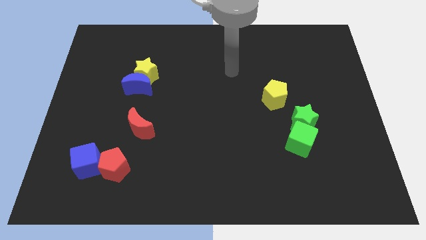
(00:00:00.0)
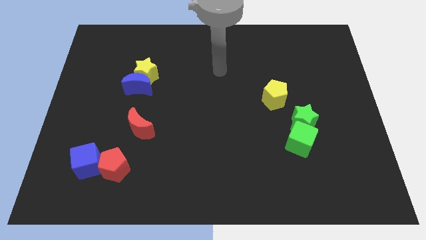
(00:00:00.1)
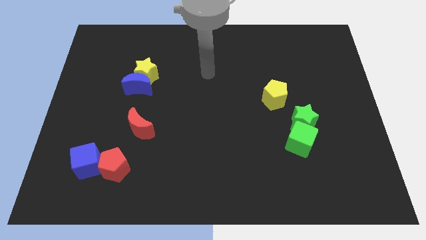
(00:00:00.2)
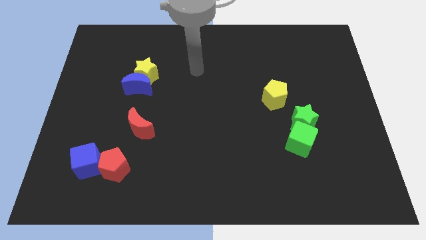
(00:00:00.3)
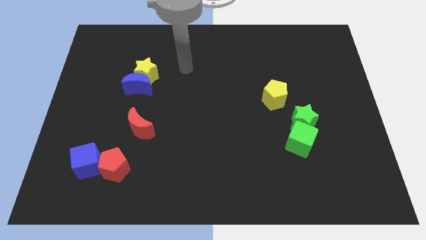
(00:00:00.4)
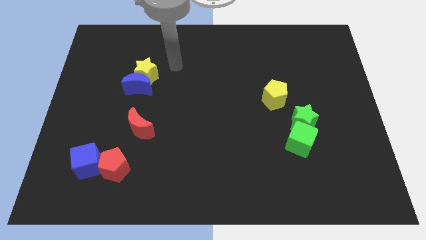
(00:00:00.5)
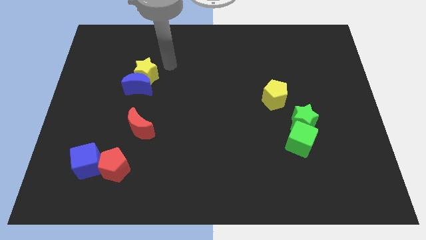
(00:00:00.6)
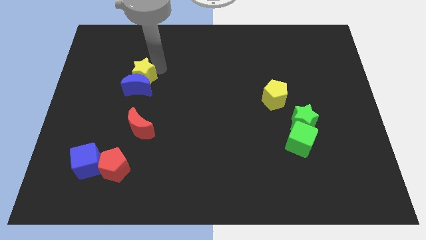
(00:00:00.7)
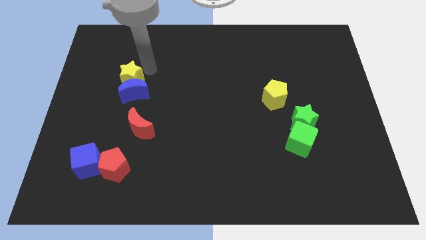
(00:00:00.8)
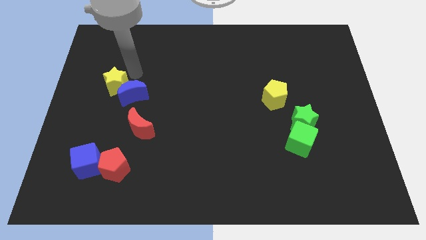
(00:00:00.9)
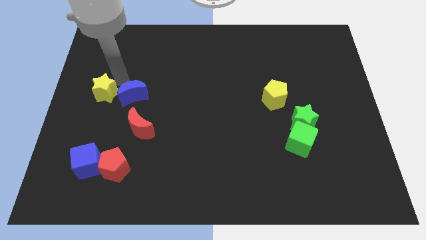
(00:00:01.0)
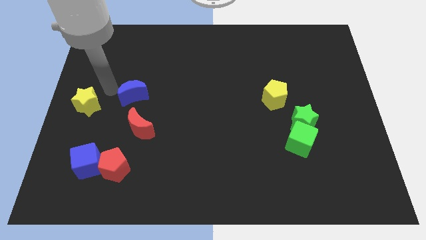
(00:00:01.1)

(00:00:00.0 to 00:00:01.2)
separate the blue moon from the yellow star

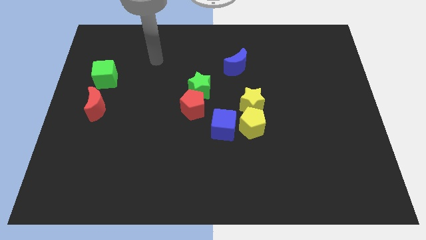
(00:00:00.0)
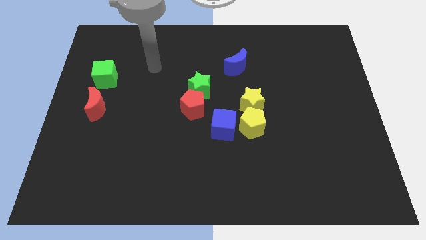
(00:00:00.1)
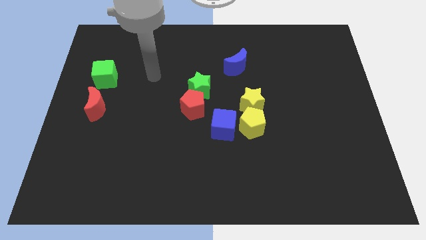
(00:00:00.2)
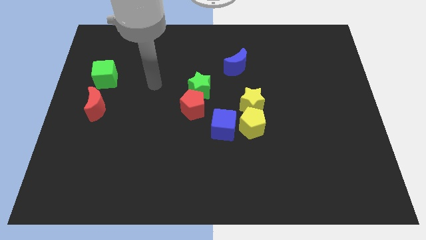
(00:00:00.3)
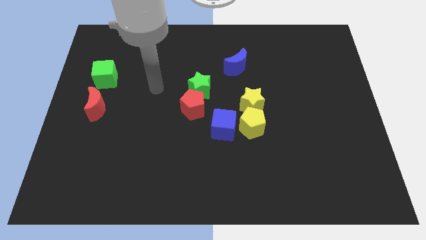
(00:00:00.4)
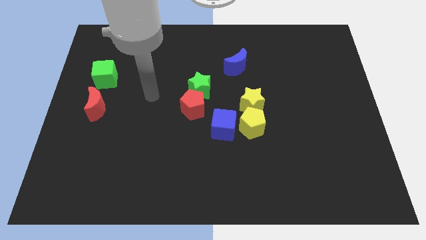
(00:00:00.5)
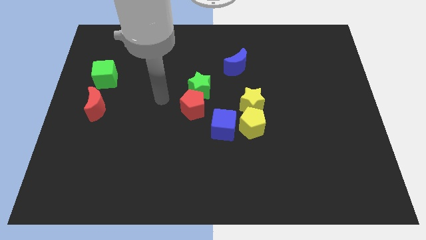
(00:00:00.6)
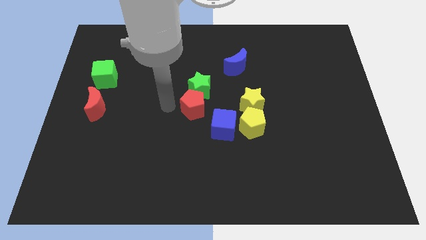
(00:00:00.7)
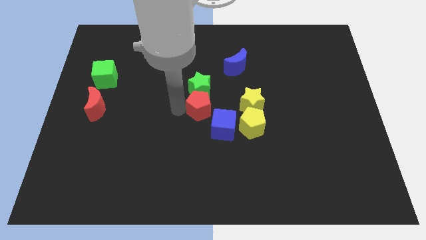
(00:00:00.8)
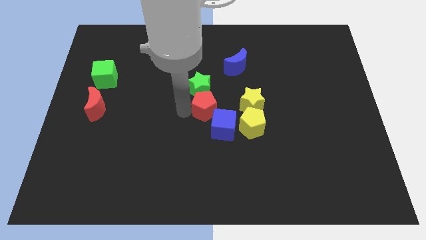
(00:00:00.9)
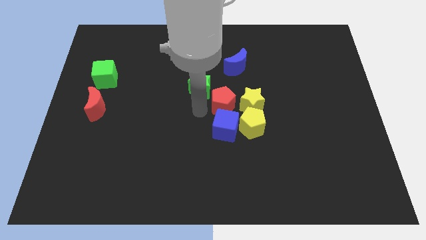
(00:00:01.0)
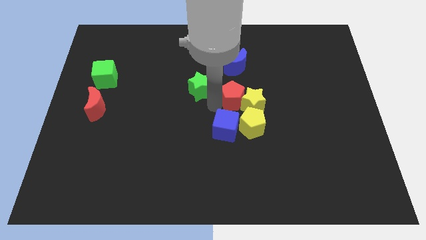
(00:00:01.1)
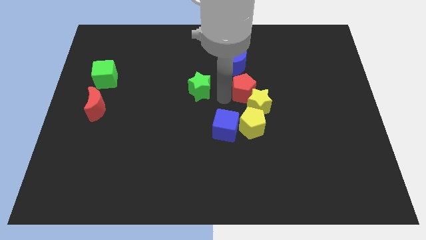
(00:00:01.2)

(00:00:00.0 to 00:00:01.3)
move the green star away from the red pentagon

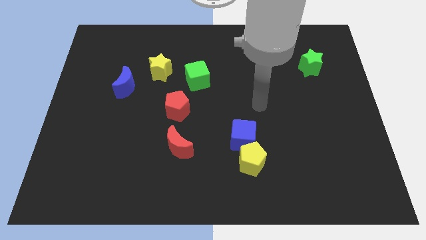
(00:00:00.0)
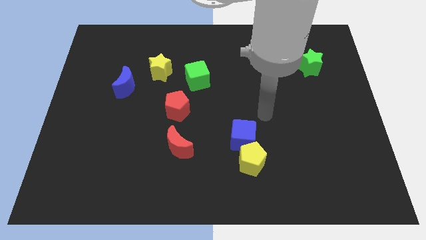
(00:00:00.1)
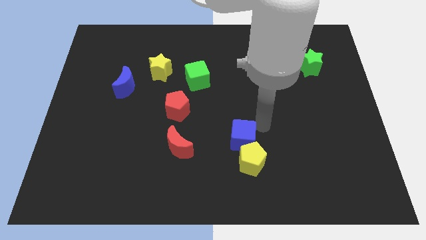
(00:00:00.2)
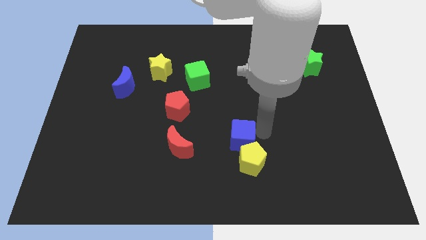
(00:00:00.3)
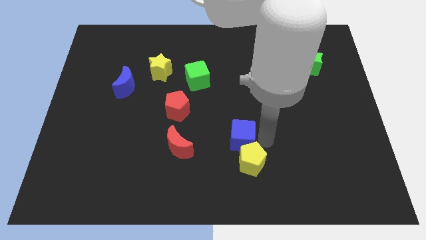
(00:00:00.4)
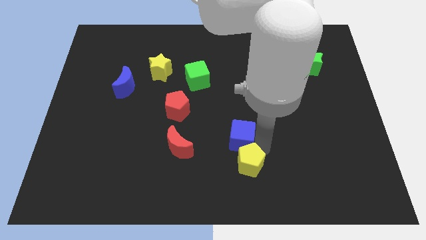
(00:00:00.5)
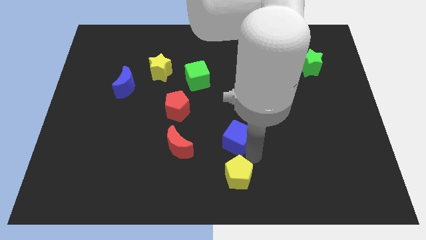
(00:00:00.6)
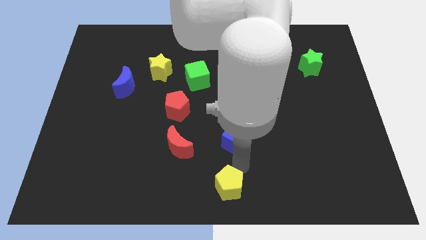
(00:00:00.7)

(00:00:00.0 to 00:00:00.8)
pull the blue cube apart from the yellow pentagon

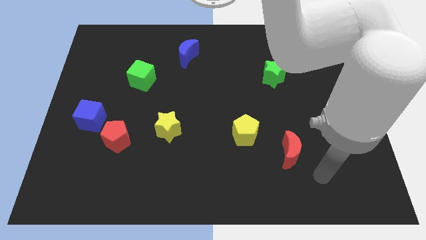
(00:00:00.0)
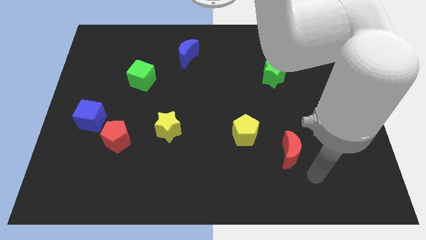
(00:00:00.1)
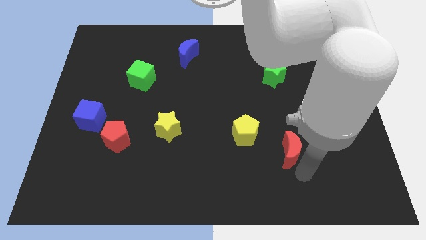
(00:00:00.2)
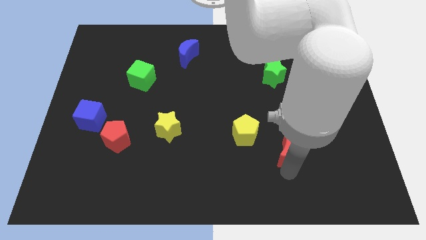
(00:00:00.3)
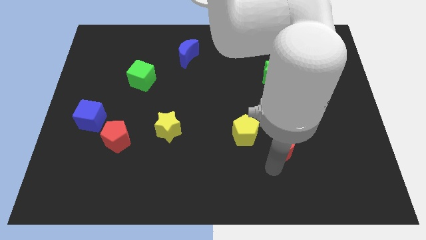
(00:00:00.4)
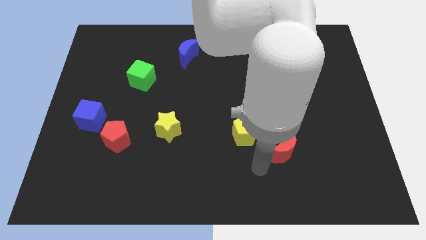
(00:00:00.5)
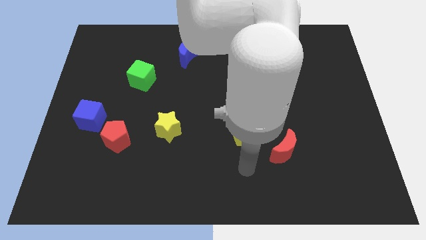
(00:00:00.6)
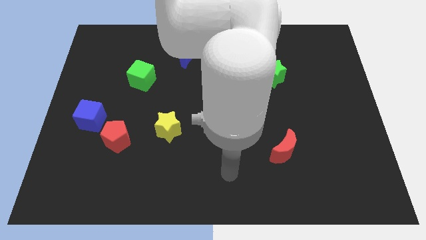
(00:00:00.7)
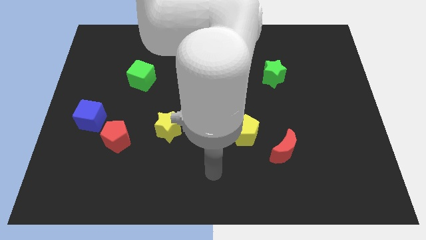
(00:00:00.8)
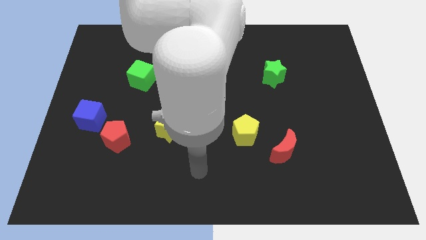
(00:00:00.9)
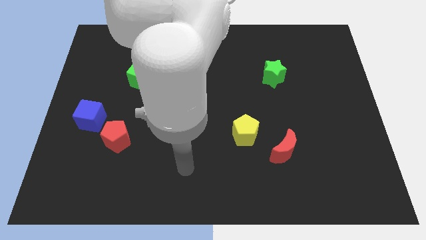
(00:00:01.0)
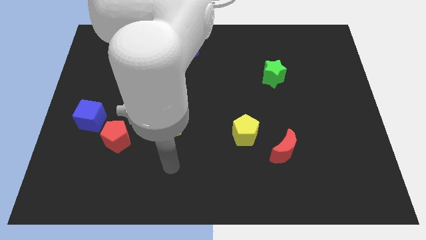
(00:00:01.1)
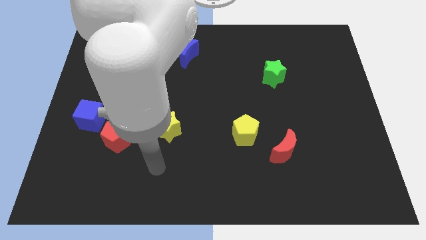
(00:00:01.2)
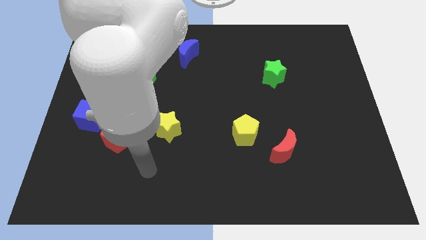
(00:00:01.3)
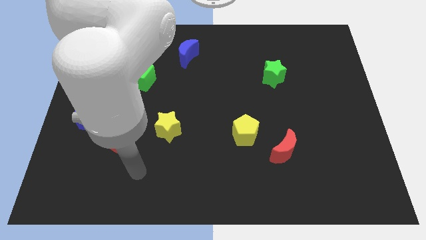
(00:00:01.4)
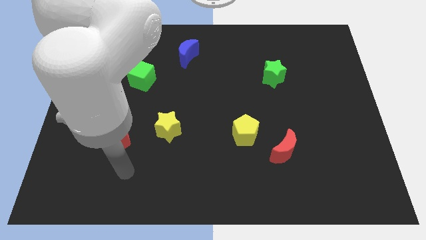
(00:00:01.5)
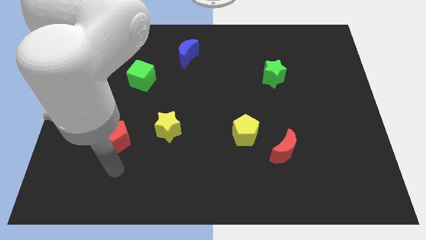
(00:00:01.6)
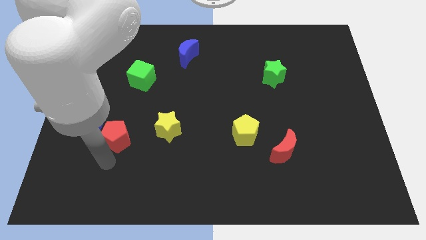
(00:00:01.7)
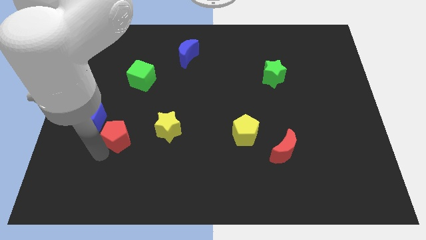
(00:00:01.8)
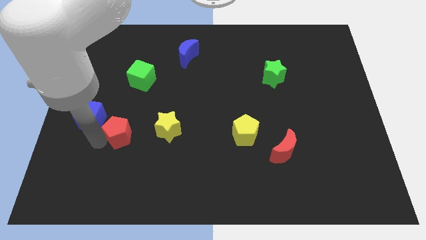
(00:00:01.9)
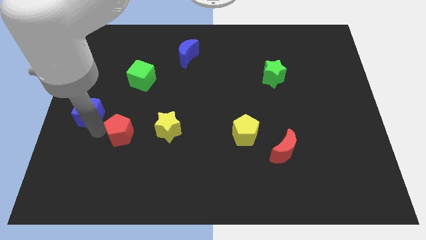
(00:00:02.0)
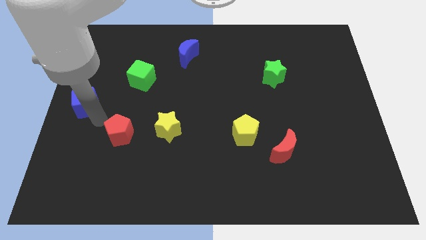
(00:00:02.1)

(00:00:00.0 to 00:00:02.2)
move the red pentagon away from the blue cube

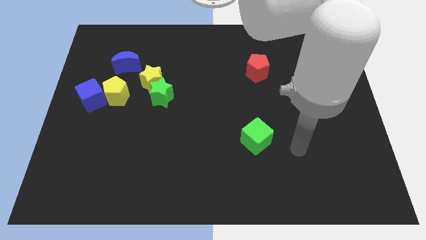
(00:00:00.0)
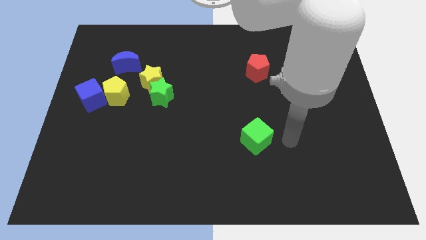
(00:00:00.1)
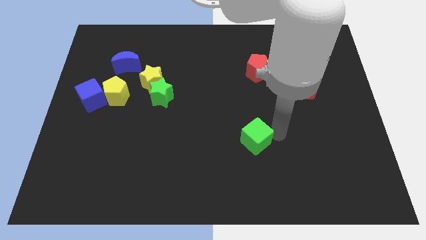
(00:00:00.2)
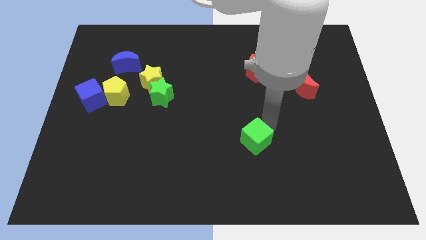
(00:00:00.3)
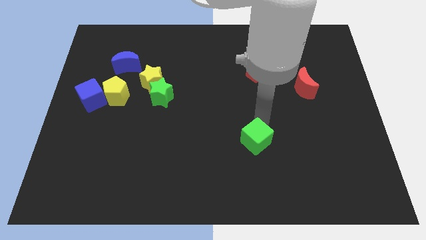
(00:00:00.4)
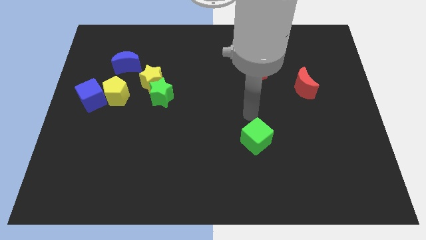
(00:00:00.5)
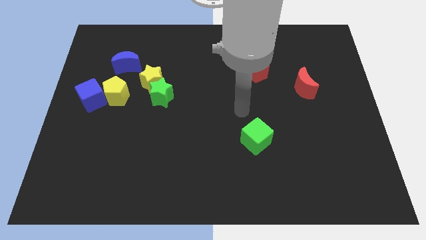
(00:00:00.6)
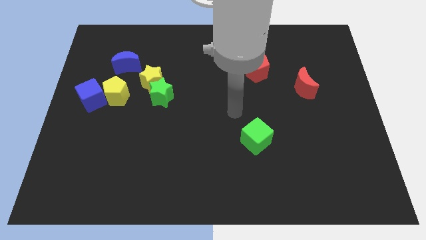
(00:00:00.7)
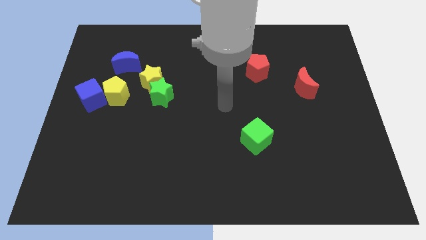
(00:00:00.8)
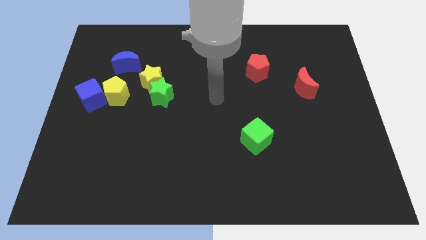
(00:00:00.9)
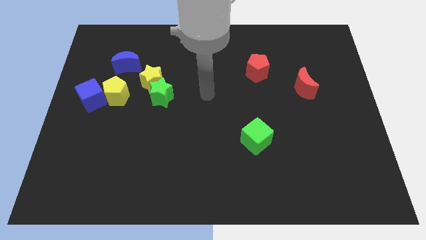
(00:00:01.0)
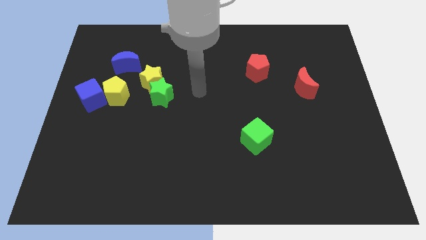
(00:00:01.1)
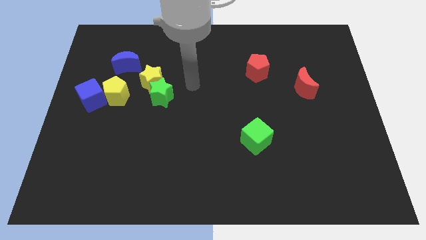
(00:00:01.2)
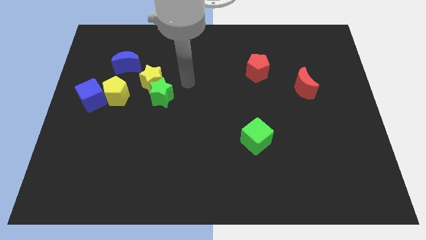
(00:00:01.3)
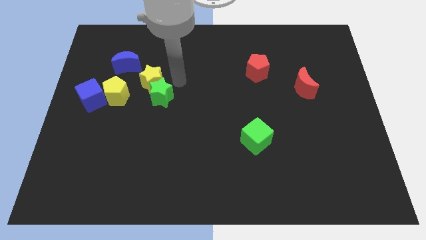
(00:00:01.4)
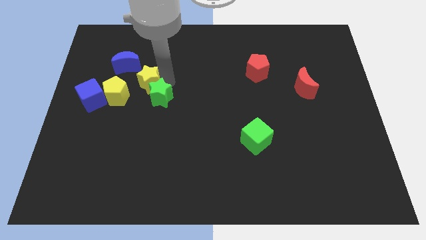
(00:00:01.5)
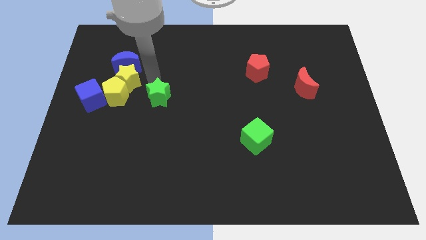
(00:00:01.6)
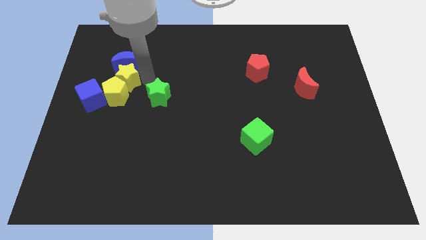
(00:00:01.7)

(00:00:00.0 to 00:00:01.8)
move the green star away from the yellow star

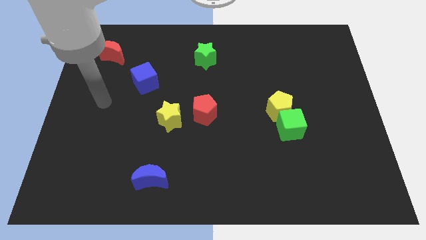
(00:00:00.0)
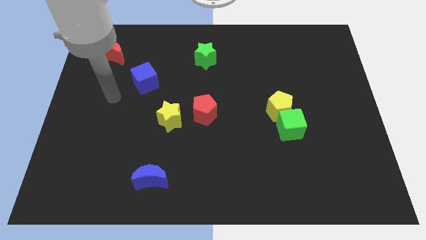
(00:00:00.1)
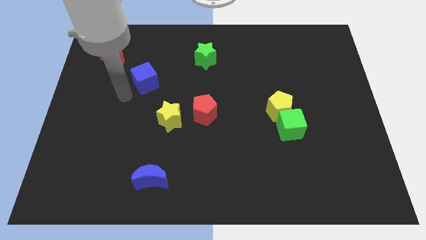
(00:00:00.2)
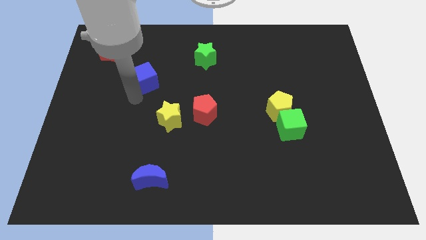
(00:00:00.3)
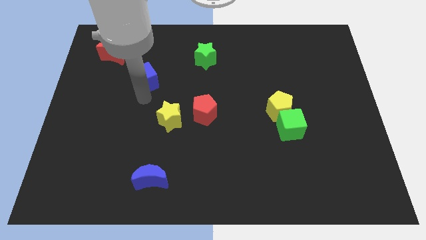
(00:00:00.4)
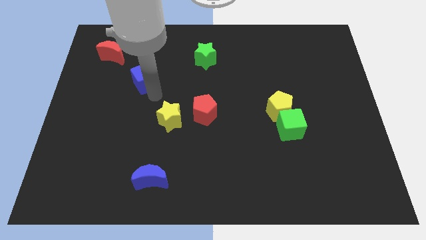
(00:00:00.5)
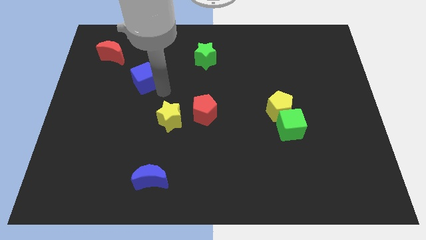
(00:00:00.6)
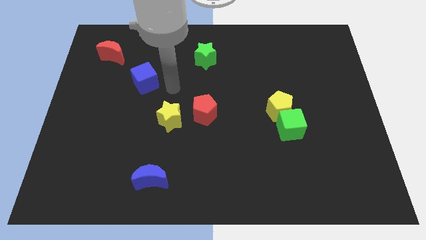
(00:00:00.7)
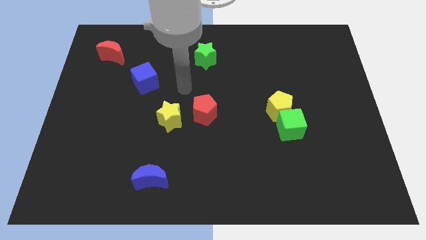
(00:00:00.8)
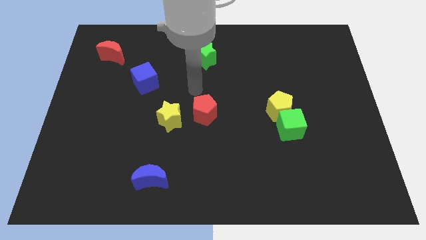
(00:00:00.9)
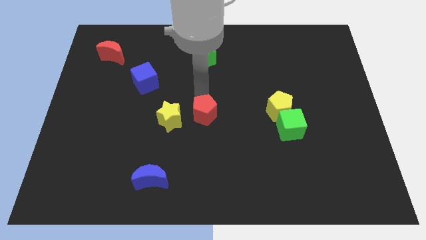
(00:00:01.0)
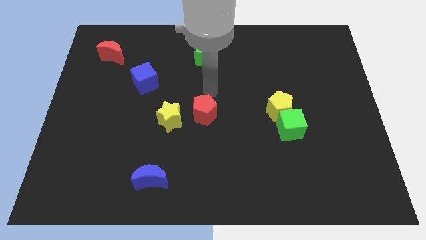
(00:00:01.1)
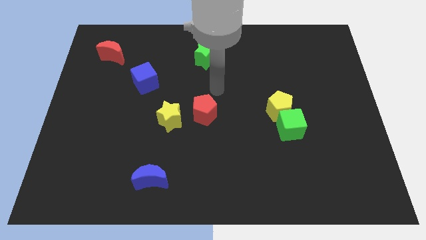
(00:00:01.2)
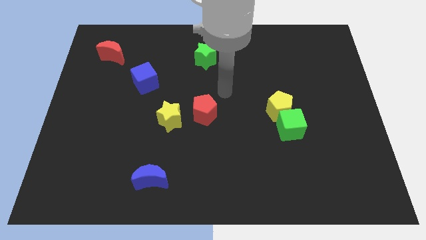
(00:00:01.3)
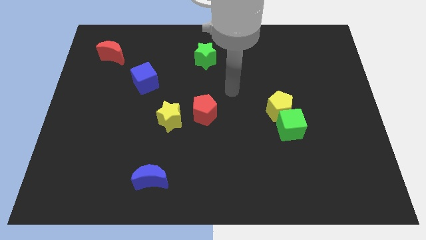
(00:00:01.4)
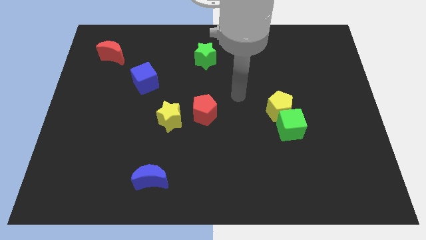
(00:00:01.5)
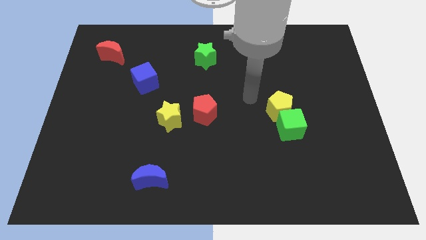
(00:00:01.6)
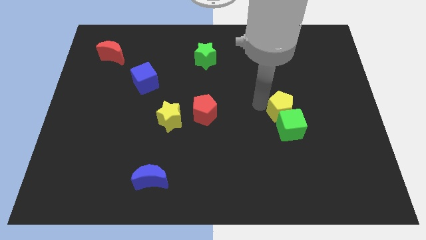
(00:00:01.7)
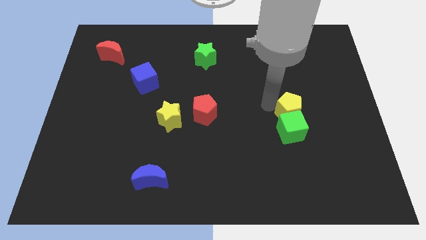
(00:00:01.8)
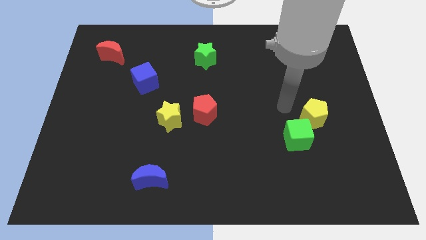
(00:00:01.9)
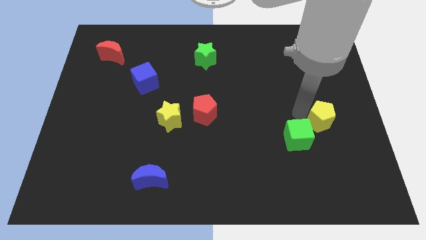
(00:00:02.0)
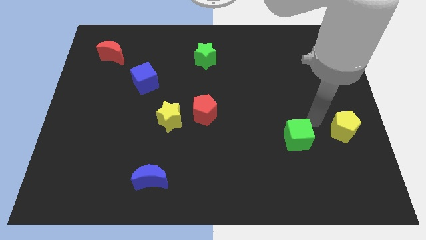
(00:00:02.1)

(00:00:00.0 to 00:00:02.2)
pull the green cube apart from the yellow pentagon
